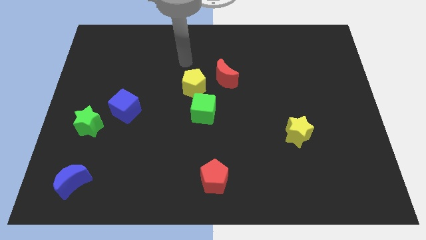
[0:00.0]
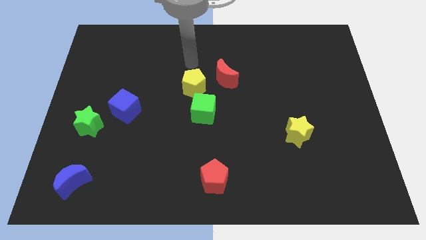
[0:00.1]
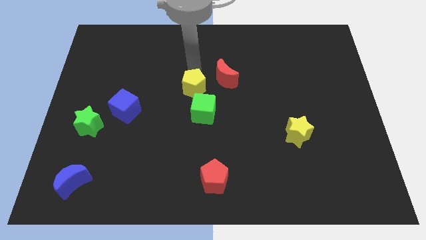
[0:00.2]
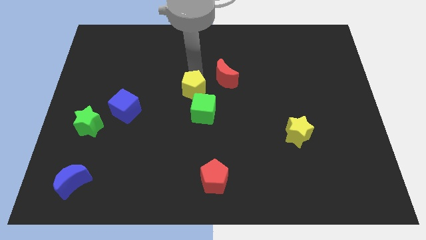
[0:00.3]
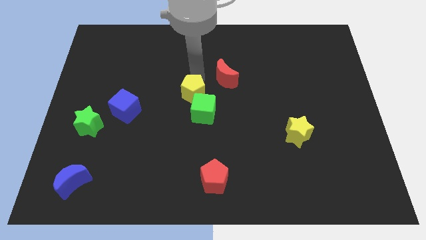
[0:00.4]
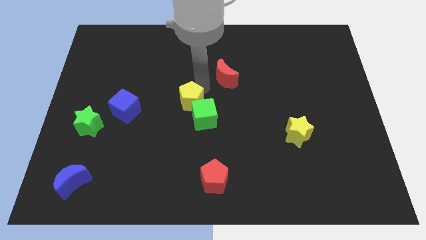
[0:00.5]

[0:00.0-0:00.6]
separate the red moon from the yellow pentagon

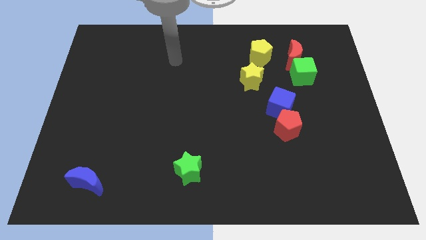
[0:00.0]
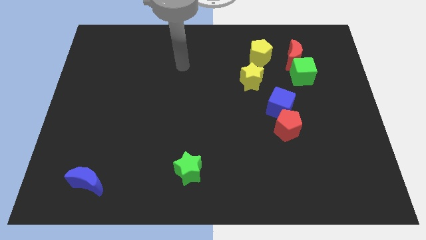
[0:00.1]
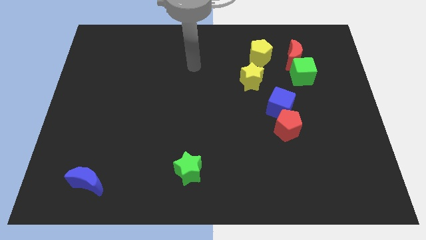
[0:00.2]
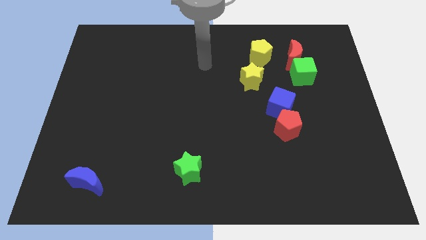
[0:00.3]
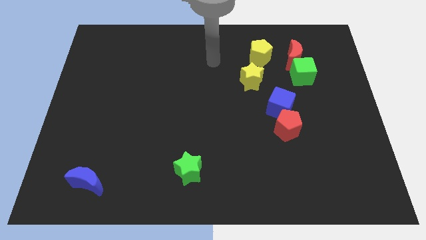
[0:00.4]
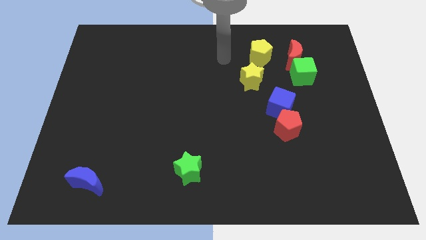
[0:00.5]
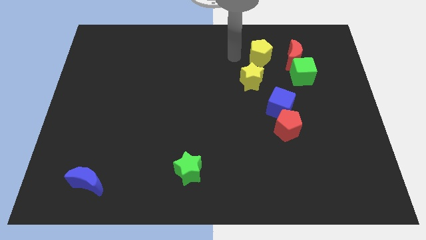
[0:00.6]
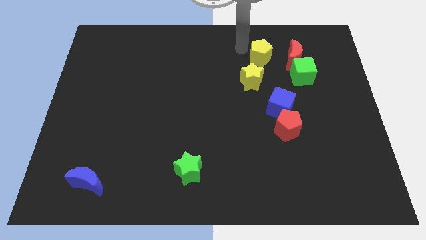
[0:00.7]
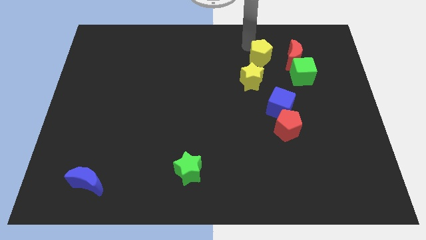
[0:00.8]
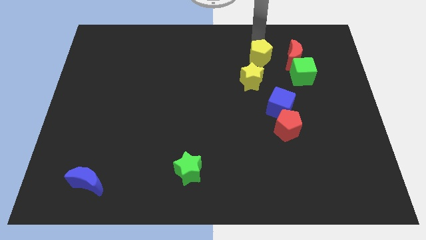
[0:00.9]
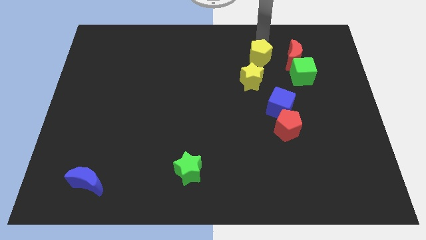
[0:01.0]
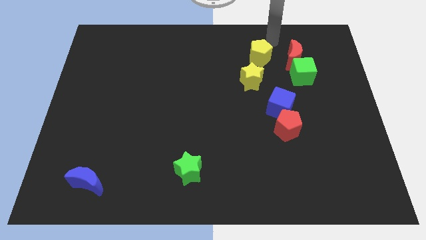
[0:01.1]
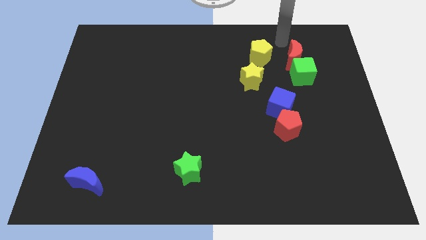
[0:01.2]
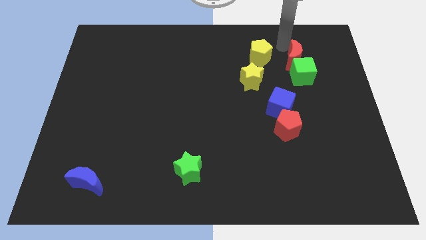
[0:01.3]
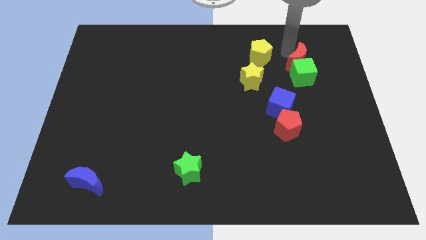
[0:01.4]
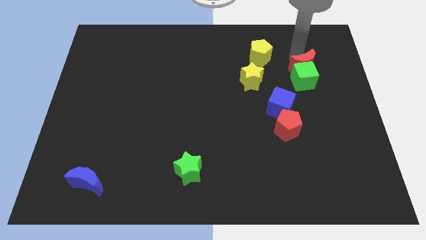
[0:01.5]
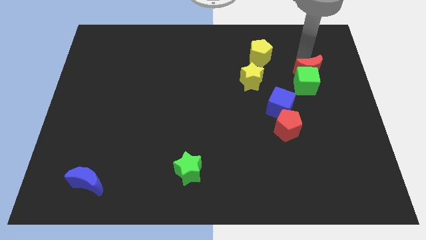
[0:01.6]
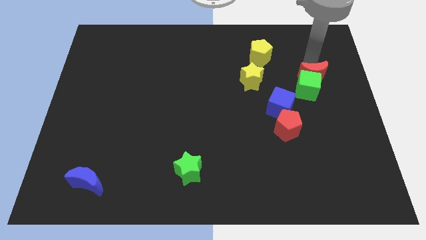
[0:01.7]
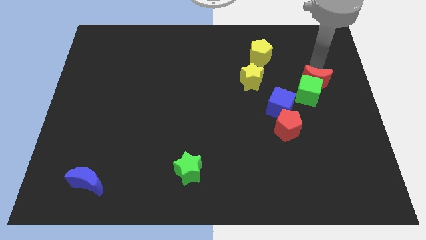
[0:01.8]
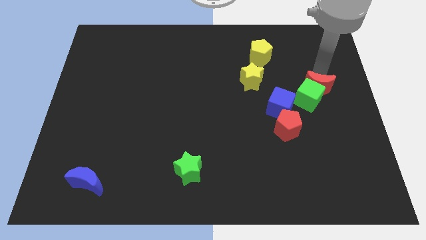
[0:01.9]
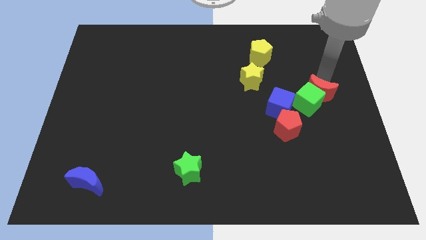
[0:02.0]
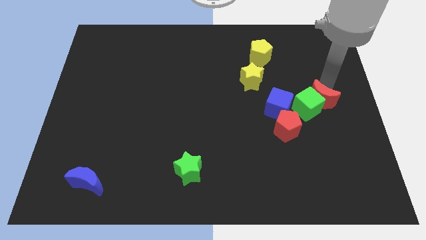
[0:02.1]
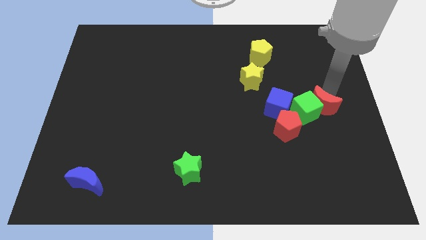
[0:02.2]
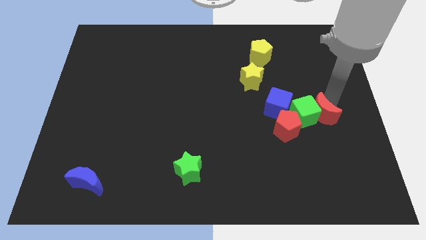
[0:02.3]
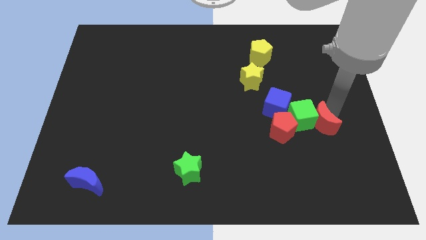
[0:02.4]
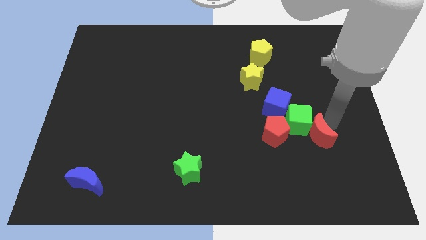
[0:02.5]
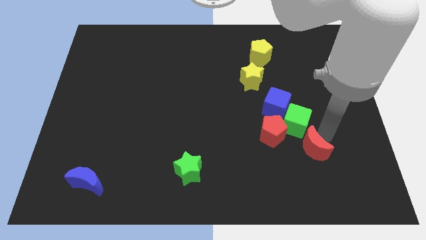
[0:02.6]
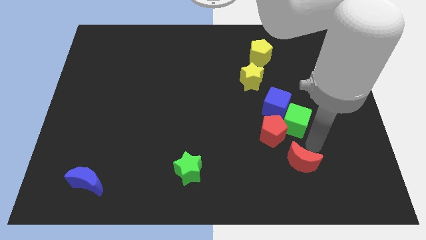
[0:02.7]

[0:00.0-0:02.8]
separate the green cube from the red moon

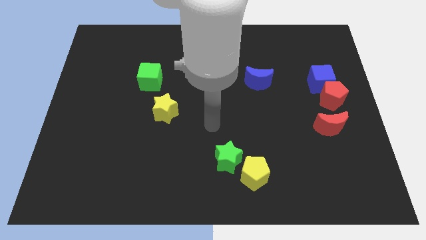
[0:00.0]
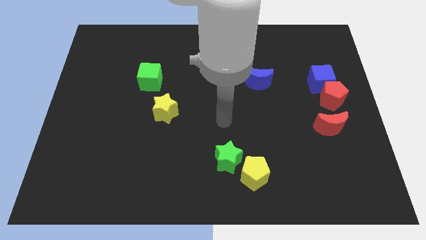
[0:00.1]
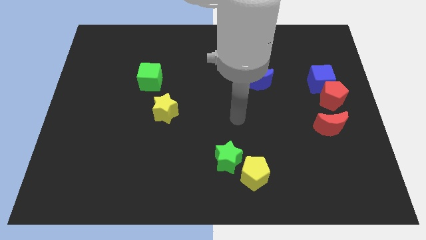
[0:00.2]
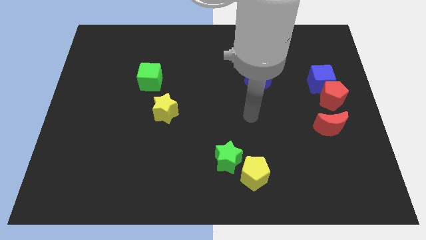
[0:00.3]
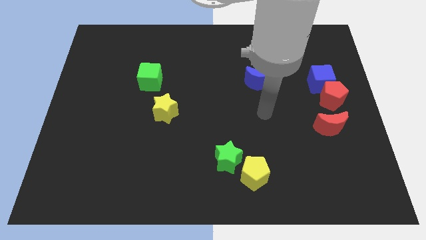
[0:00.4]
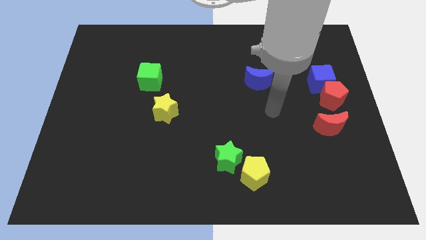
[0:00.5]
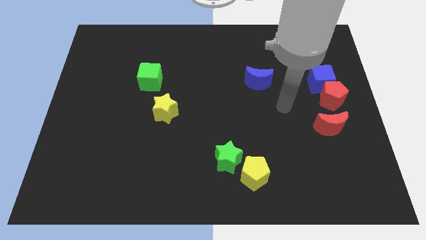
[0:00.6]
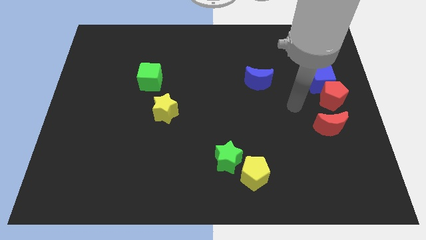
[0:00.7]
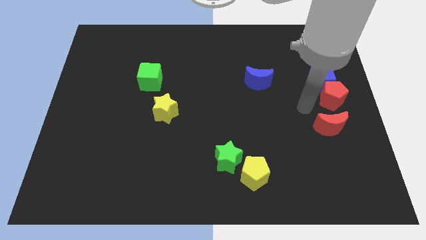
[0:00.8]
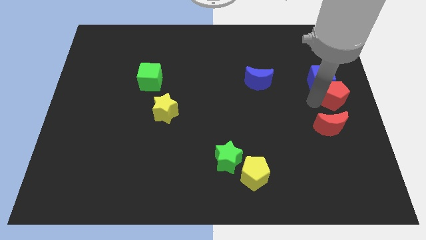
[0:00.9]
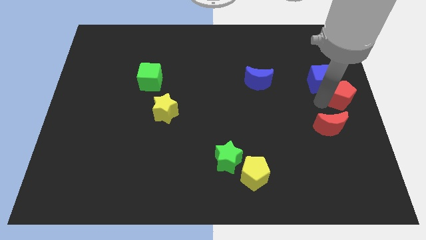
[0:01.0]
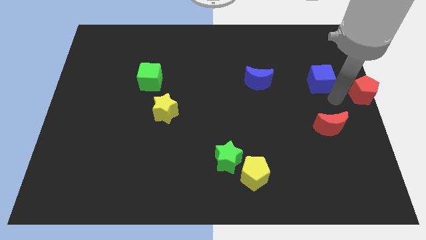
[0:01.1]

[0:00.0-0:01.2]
move the blue cube away from the red pentagon

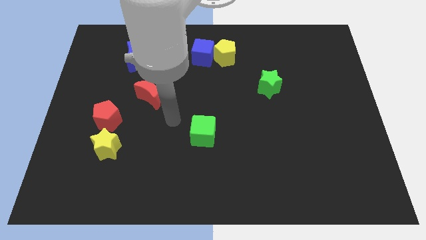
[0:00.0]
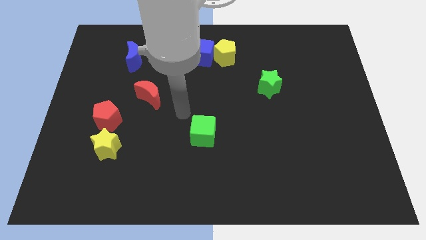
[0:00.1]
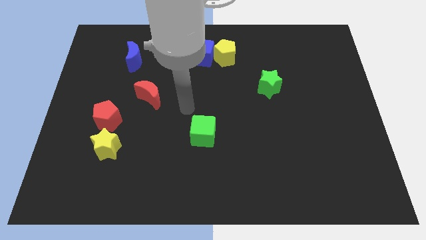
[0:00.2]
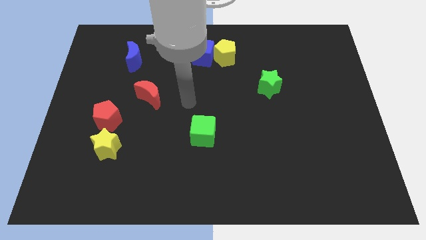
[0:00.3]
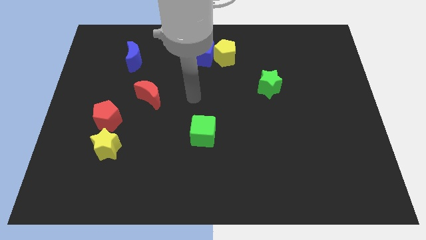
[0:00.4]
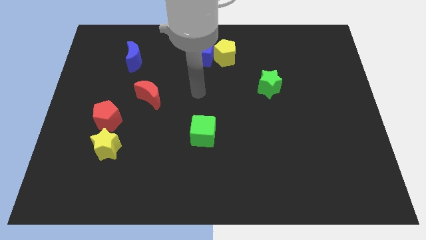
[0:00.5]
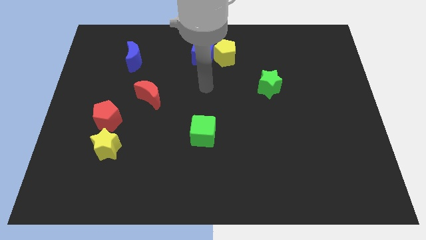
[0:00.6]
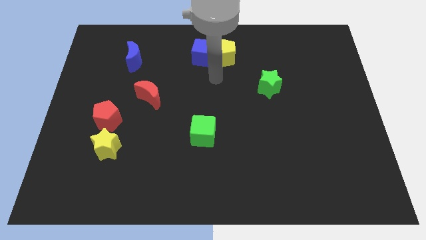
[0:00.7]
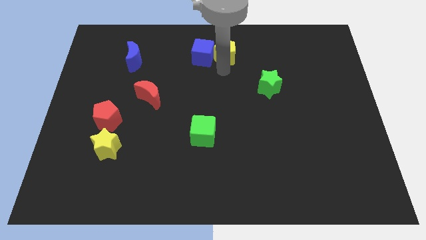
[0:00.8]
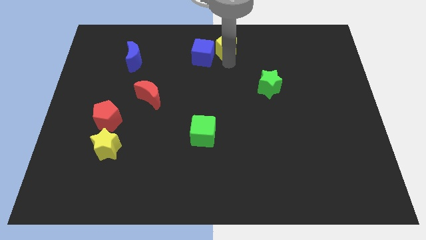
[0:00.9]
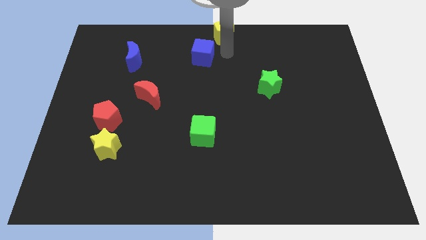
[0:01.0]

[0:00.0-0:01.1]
separate the blue cube from the yellow pentagon

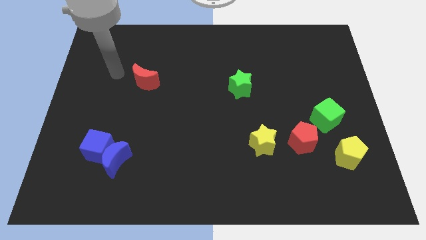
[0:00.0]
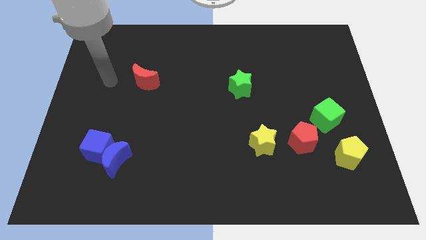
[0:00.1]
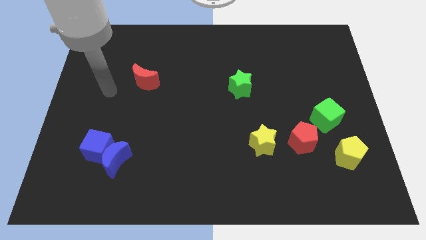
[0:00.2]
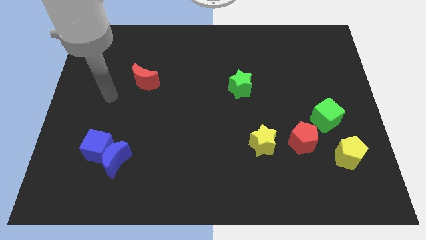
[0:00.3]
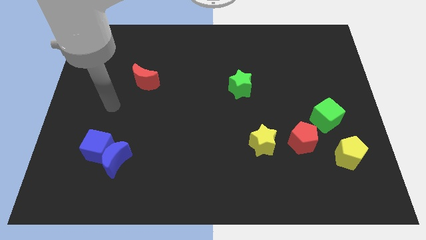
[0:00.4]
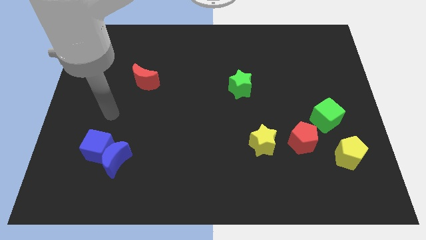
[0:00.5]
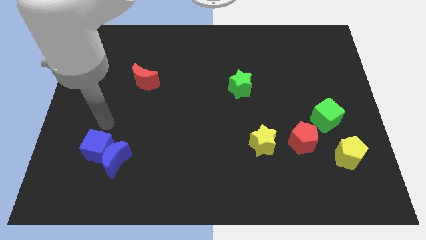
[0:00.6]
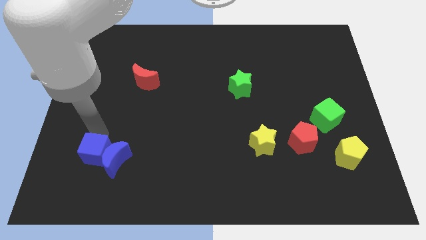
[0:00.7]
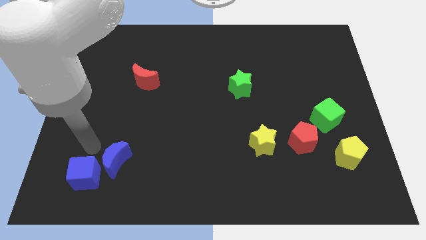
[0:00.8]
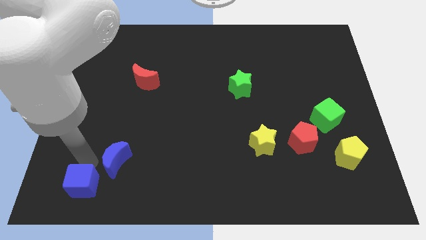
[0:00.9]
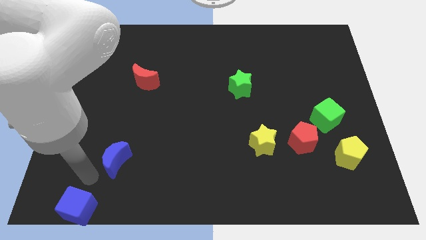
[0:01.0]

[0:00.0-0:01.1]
separate the blue moon from the blue cube

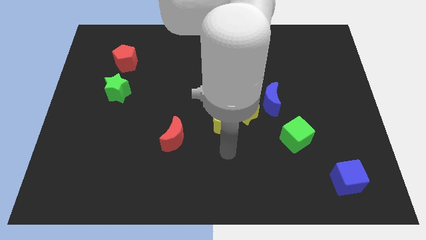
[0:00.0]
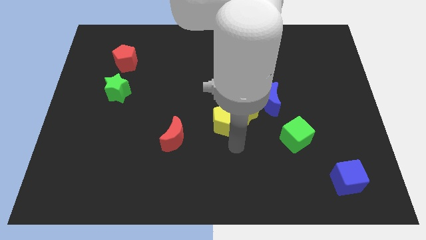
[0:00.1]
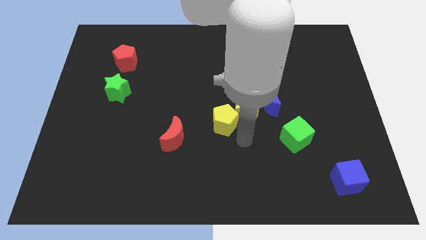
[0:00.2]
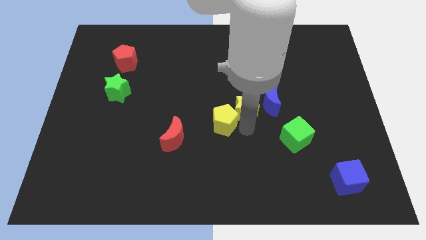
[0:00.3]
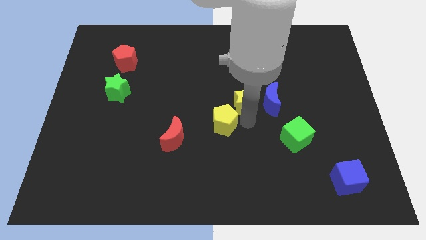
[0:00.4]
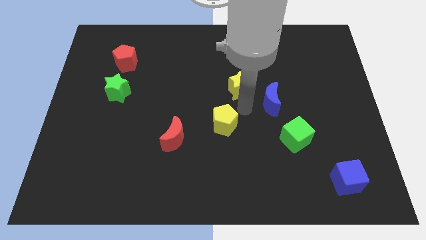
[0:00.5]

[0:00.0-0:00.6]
separate the yellow pentagon from the yellow star

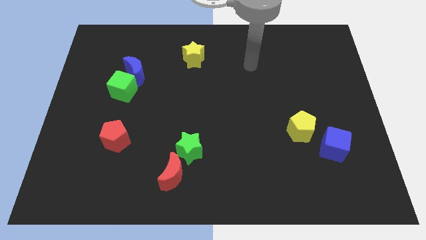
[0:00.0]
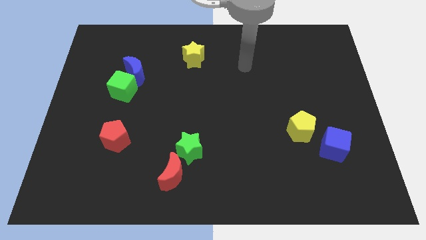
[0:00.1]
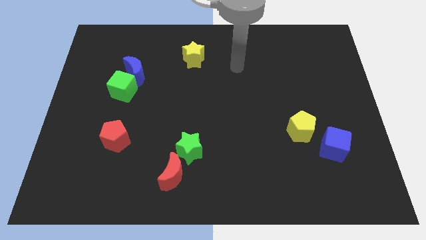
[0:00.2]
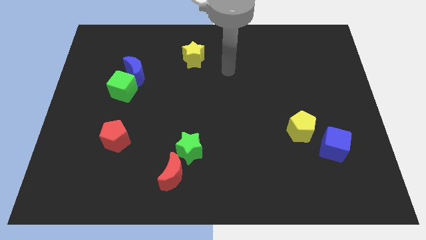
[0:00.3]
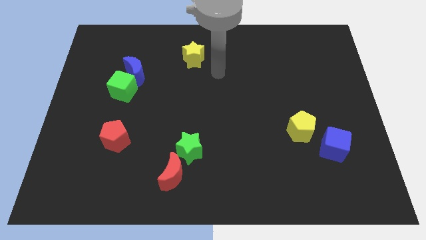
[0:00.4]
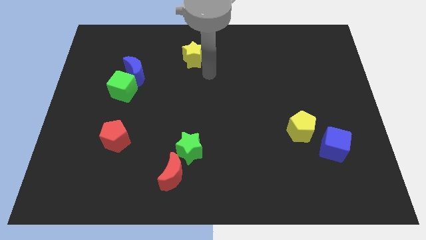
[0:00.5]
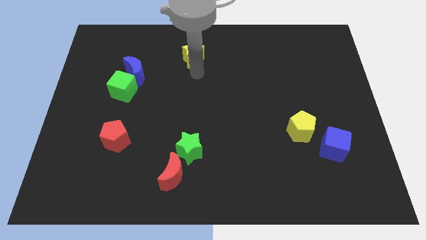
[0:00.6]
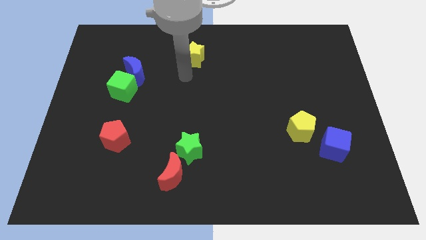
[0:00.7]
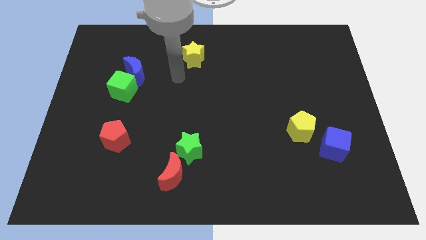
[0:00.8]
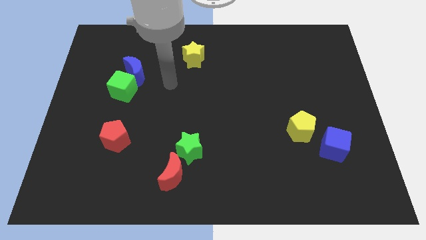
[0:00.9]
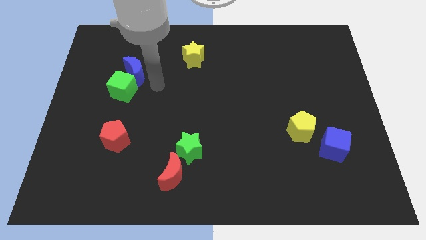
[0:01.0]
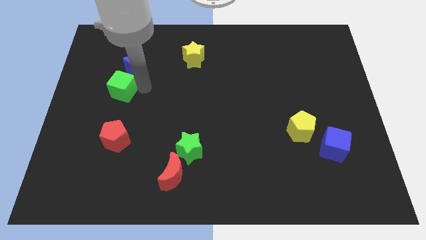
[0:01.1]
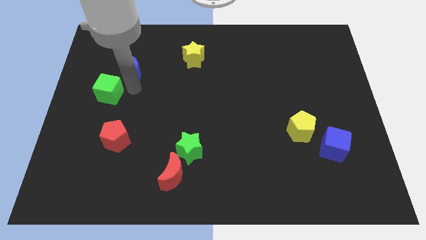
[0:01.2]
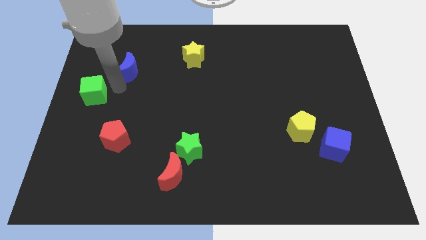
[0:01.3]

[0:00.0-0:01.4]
move the blue moon away from the green cube

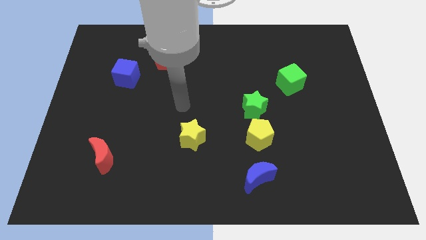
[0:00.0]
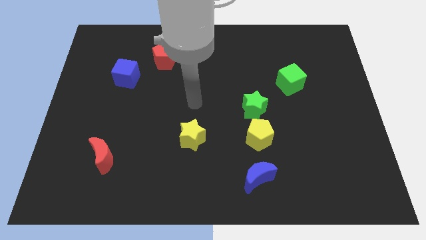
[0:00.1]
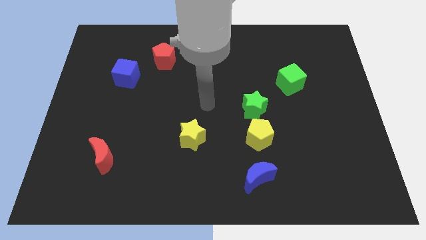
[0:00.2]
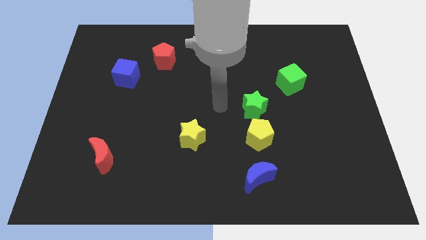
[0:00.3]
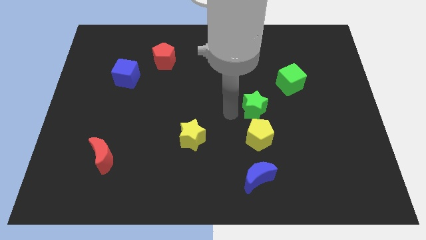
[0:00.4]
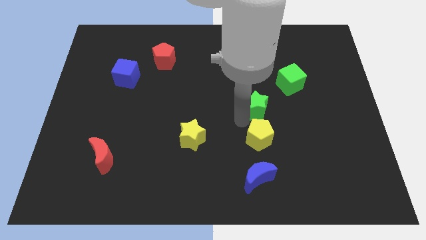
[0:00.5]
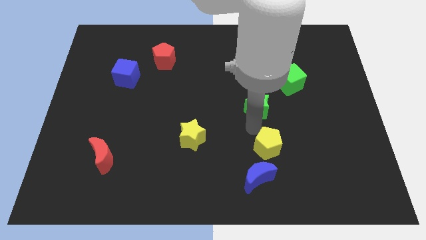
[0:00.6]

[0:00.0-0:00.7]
separate the green star from the yellow pentagon
